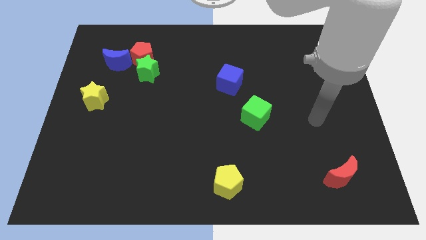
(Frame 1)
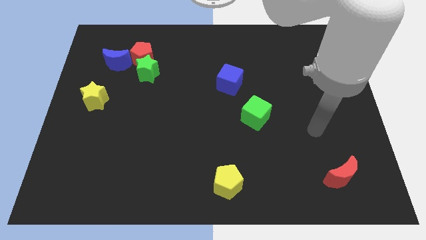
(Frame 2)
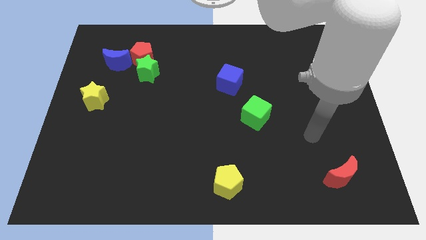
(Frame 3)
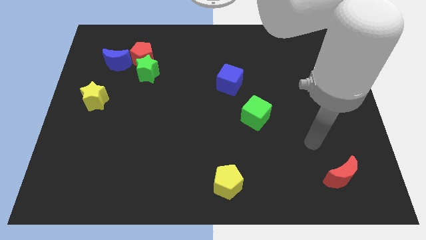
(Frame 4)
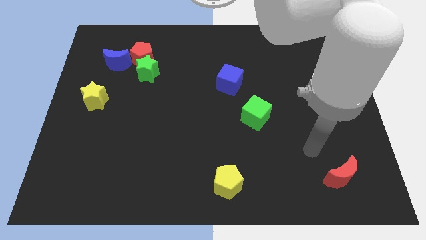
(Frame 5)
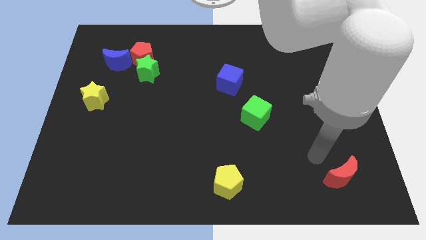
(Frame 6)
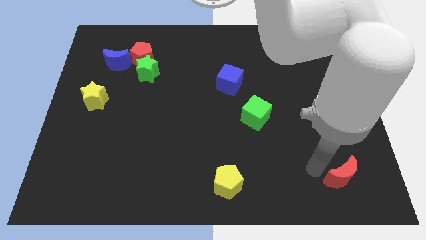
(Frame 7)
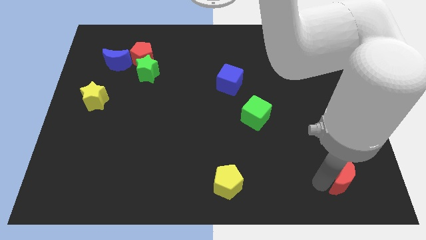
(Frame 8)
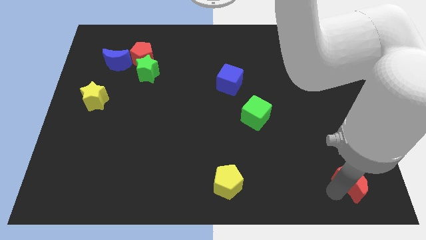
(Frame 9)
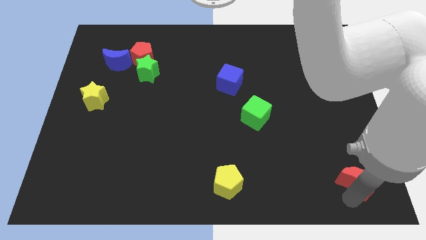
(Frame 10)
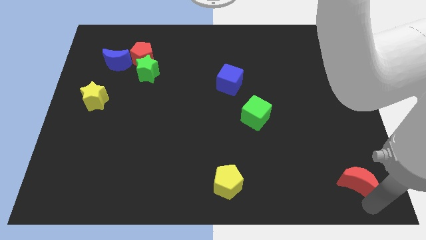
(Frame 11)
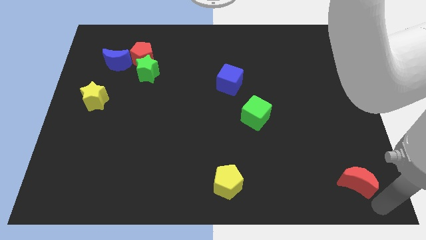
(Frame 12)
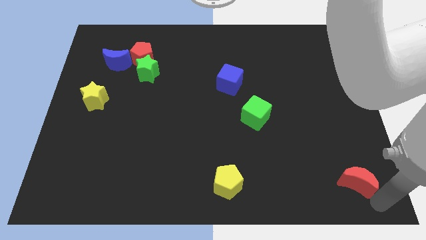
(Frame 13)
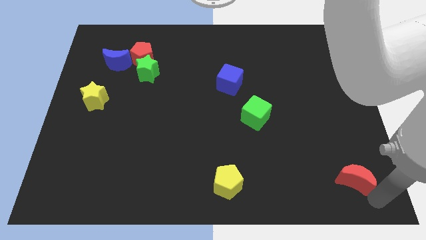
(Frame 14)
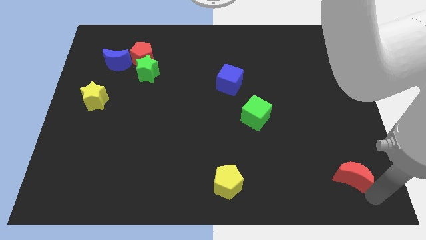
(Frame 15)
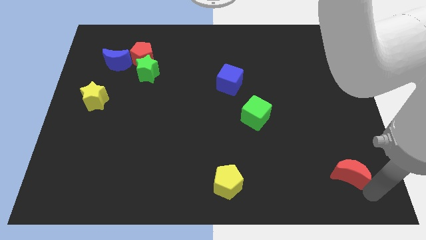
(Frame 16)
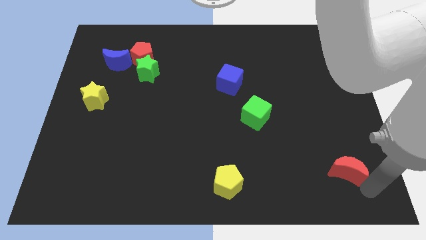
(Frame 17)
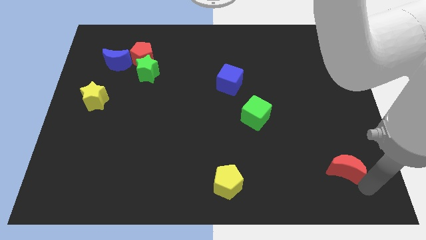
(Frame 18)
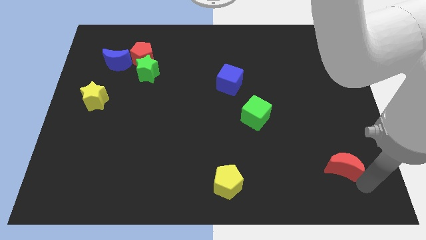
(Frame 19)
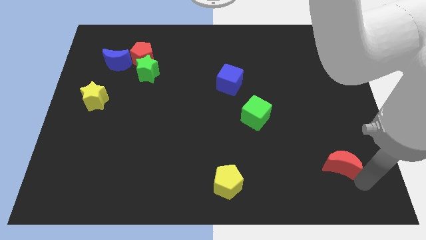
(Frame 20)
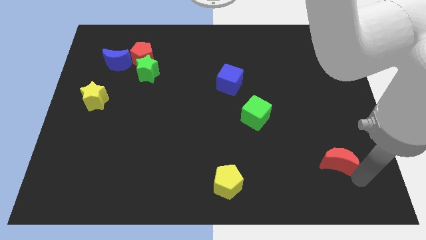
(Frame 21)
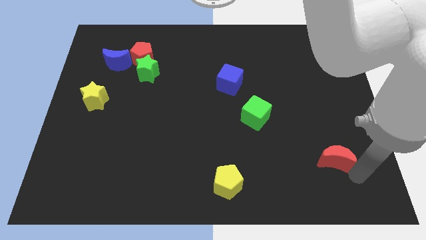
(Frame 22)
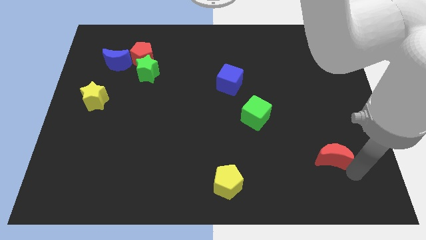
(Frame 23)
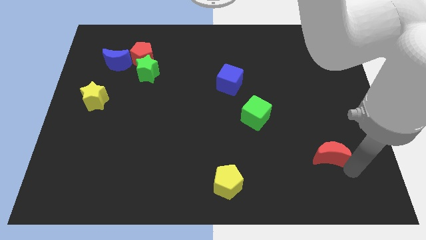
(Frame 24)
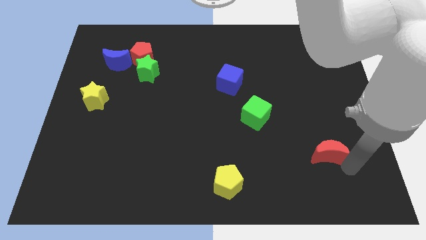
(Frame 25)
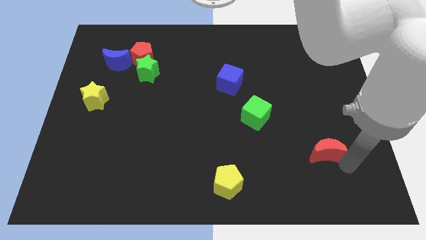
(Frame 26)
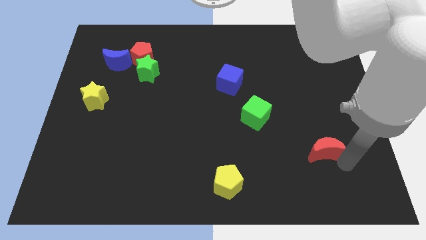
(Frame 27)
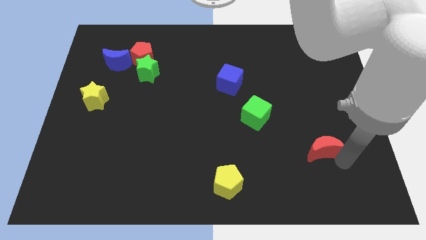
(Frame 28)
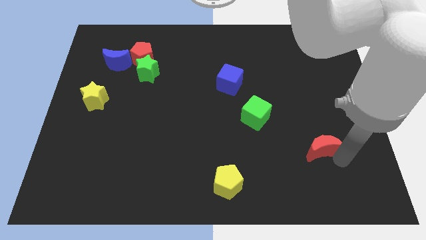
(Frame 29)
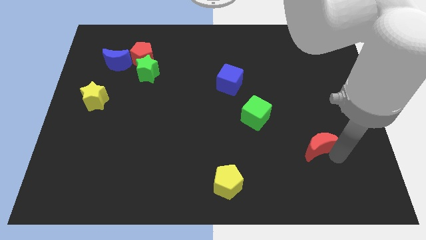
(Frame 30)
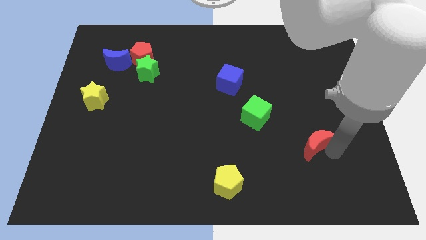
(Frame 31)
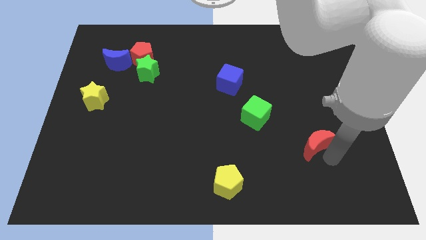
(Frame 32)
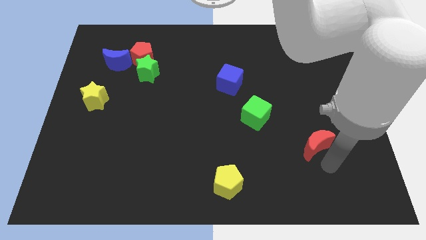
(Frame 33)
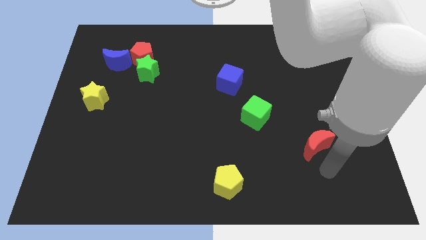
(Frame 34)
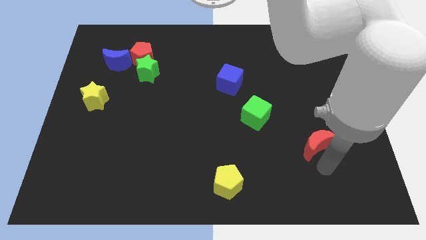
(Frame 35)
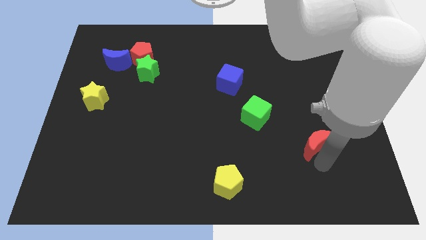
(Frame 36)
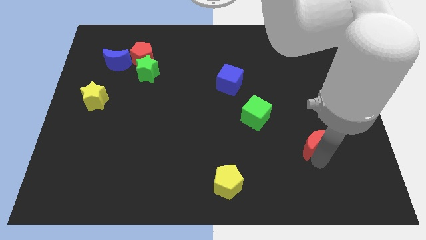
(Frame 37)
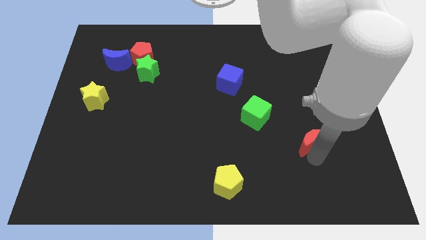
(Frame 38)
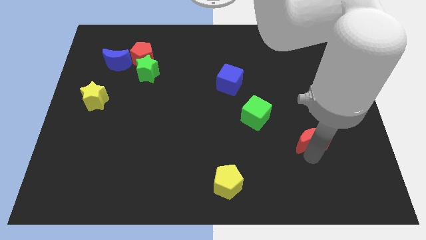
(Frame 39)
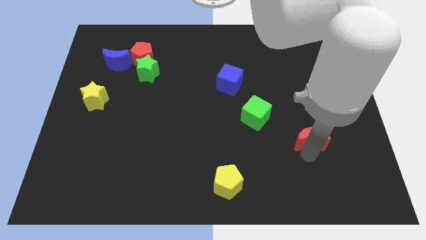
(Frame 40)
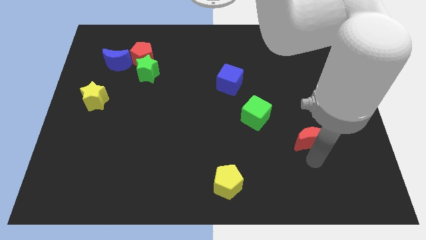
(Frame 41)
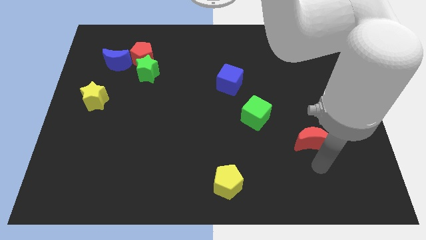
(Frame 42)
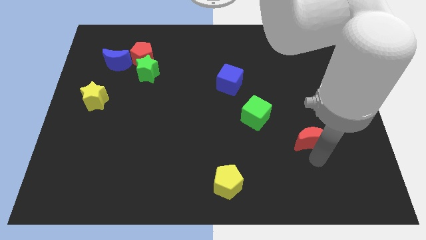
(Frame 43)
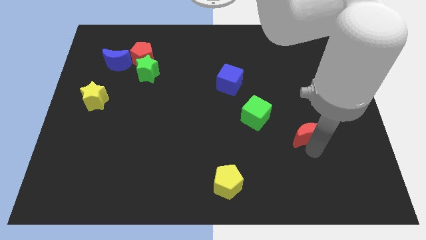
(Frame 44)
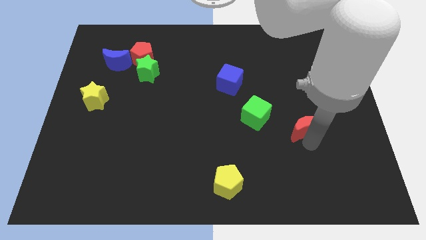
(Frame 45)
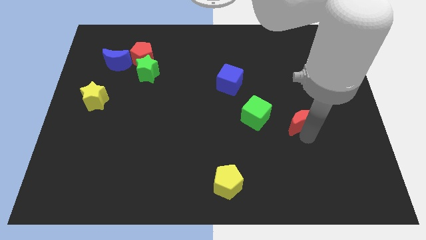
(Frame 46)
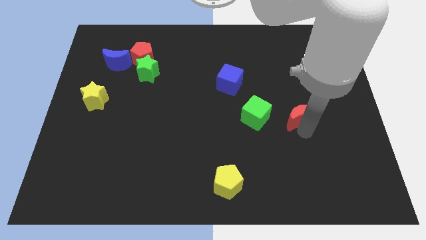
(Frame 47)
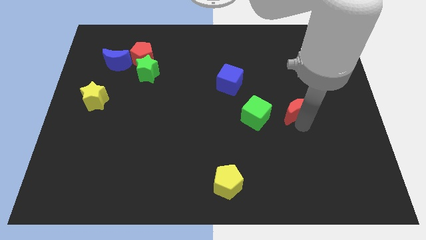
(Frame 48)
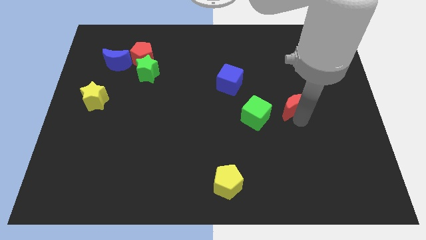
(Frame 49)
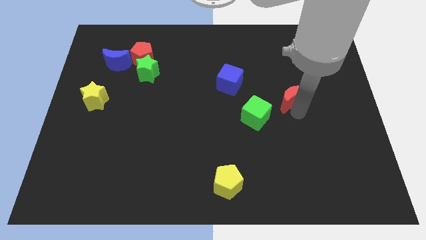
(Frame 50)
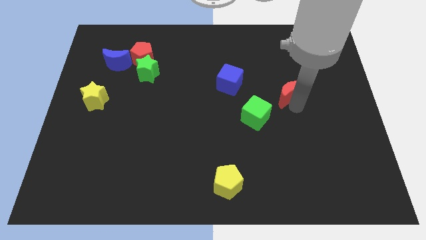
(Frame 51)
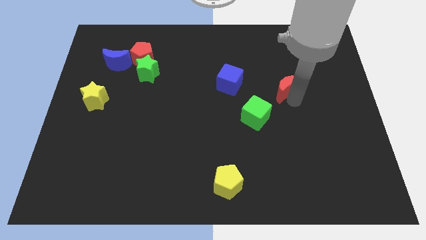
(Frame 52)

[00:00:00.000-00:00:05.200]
slide the red moon to the right side of the blue cube

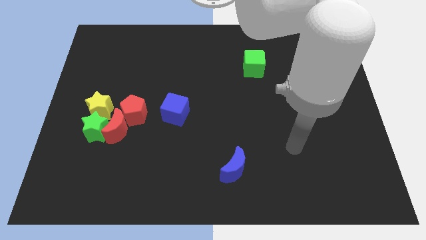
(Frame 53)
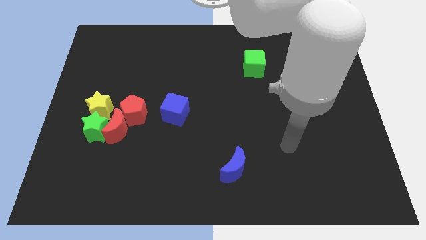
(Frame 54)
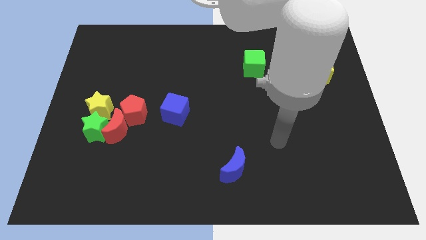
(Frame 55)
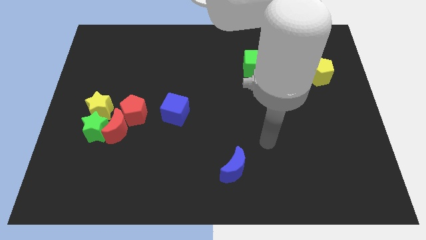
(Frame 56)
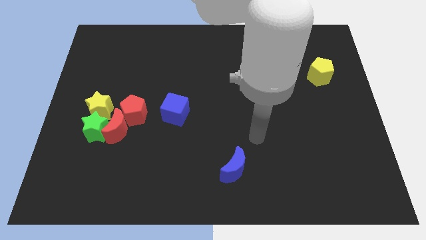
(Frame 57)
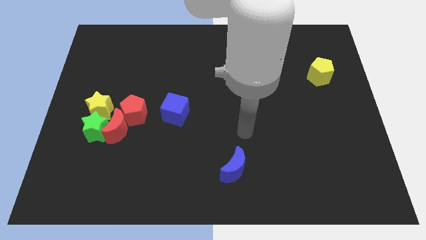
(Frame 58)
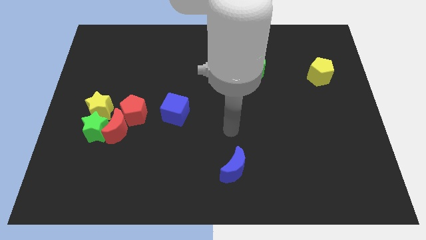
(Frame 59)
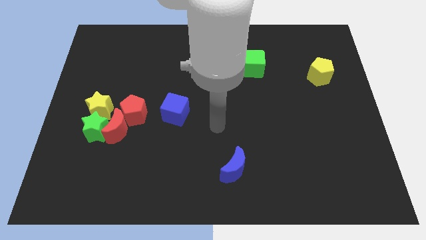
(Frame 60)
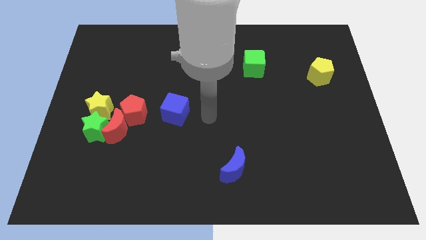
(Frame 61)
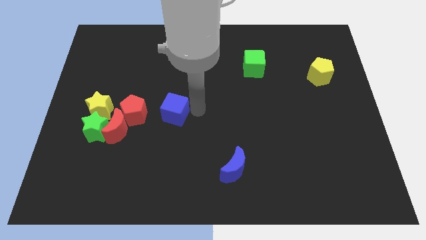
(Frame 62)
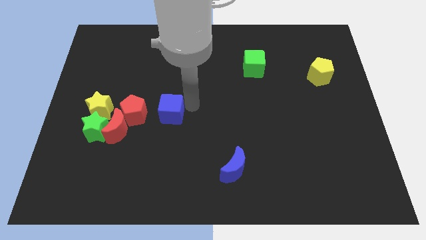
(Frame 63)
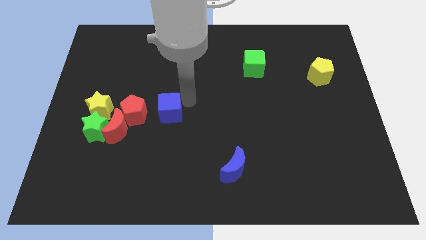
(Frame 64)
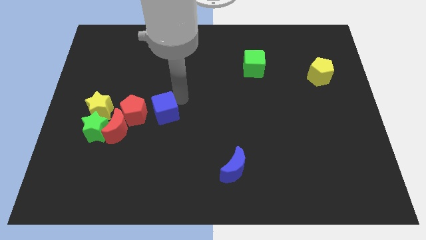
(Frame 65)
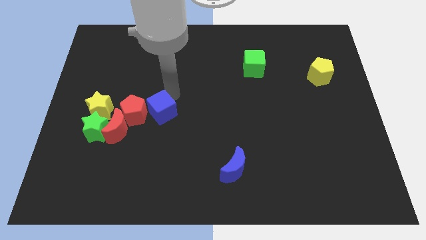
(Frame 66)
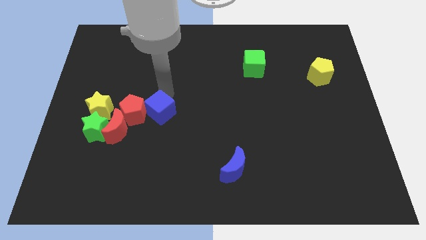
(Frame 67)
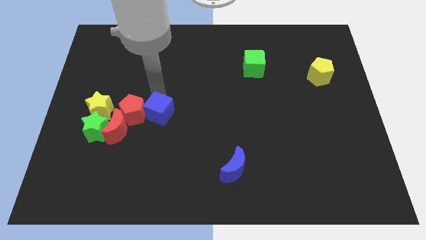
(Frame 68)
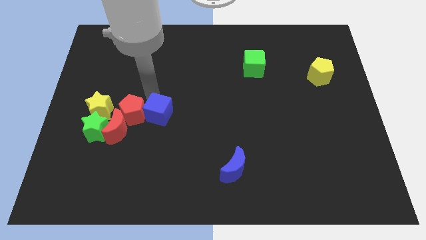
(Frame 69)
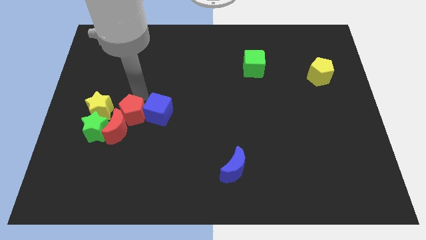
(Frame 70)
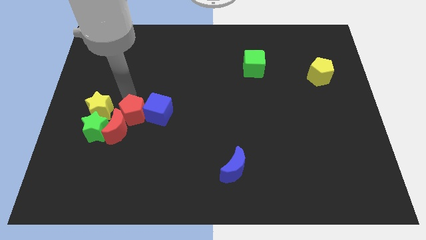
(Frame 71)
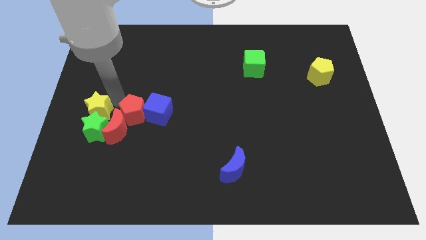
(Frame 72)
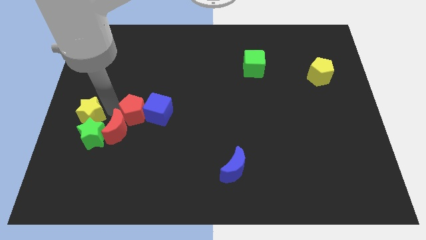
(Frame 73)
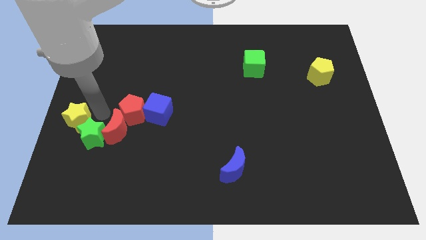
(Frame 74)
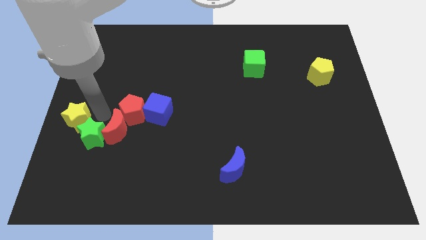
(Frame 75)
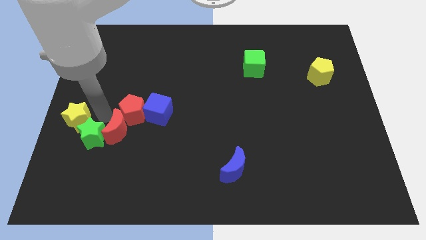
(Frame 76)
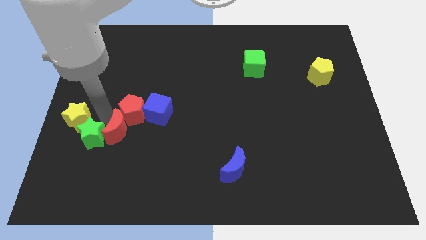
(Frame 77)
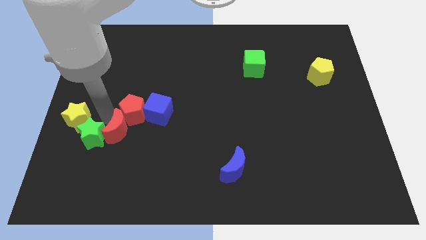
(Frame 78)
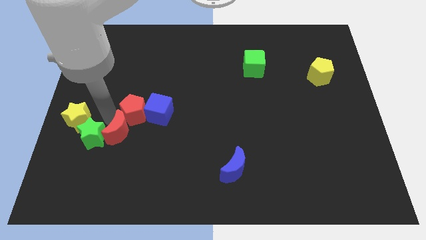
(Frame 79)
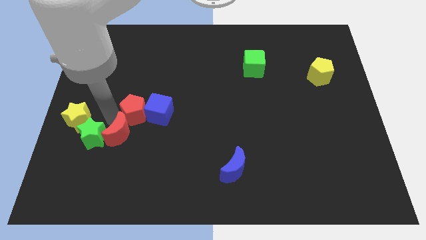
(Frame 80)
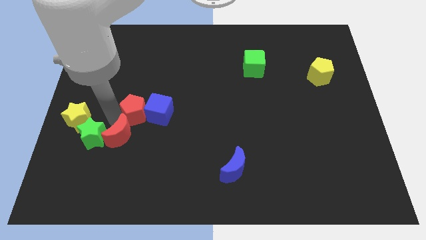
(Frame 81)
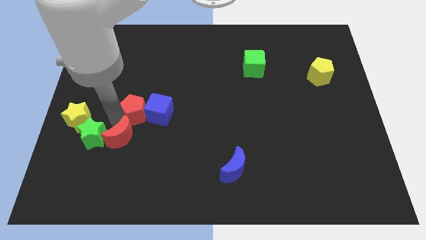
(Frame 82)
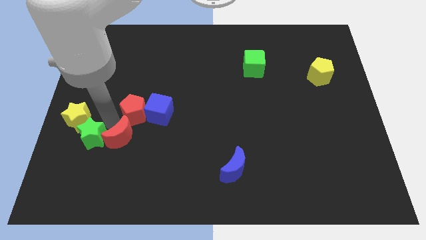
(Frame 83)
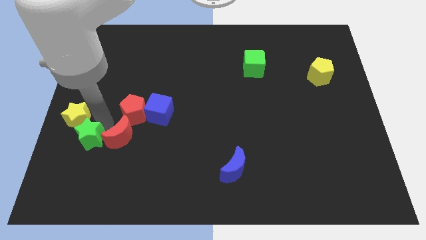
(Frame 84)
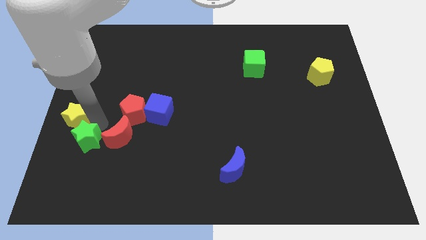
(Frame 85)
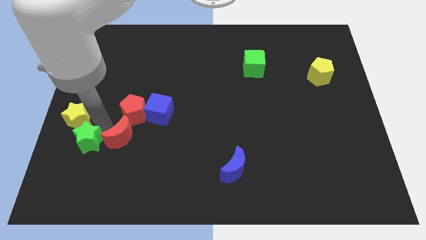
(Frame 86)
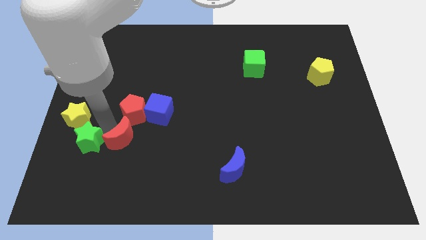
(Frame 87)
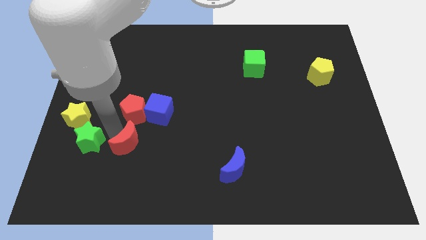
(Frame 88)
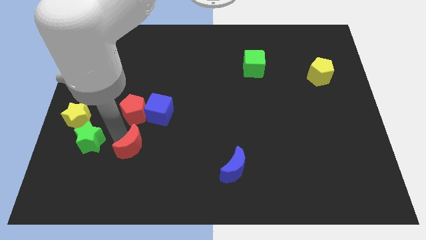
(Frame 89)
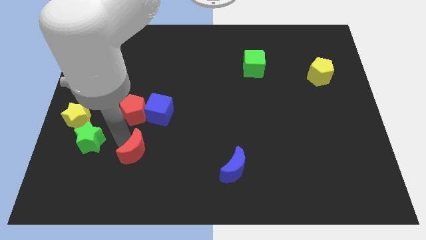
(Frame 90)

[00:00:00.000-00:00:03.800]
push the red moon below the blue cube
